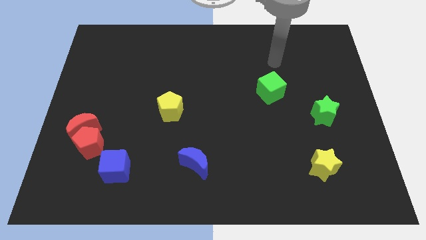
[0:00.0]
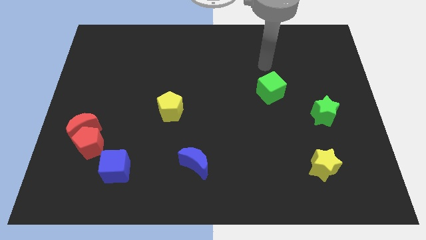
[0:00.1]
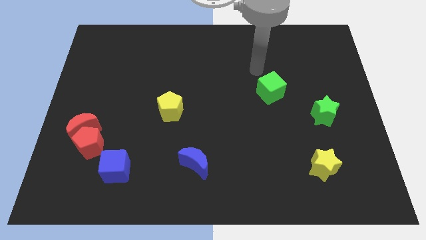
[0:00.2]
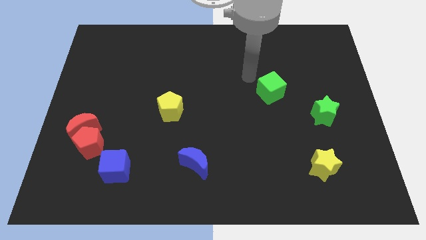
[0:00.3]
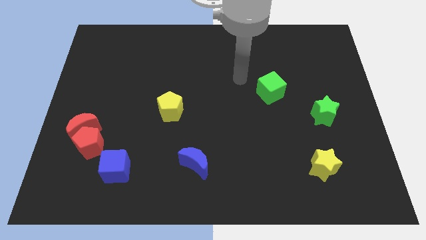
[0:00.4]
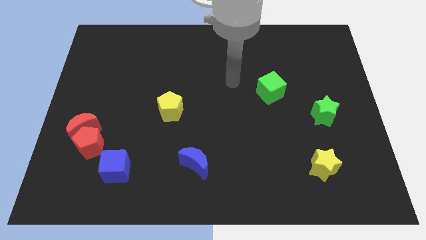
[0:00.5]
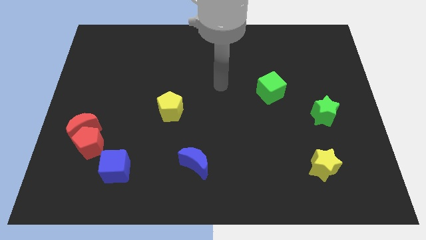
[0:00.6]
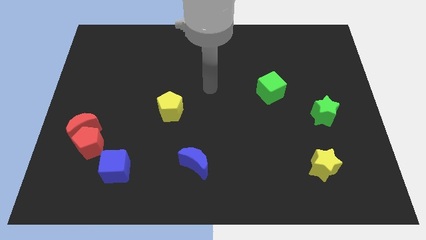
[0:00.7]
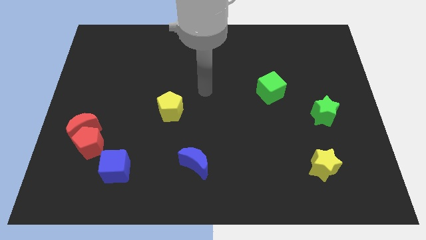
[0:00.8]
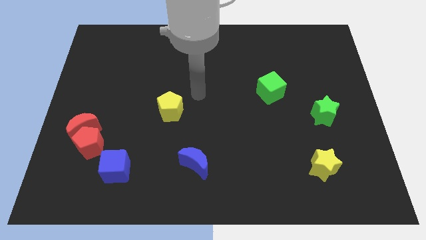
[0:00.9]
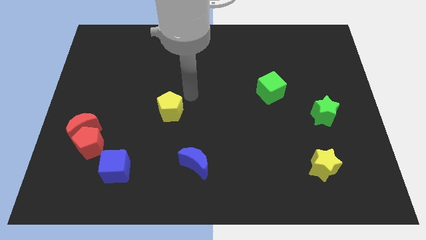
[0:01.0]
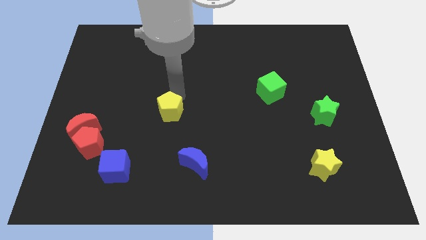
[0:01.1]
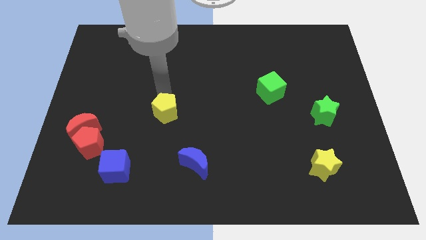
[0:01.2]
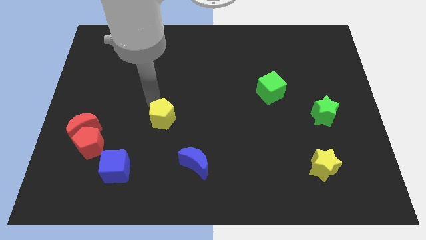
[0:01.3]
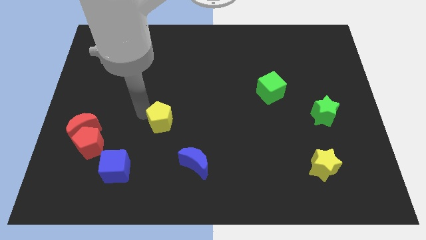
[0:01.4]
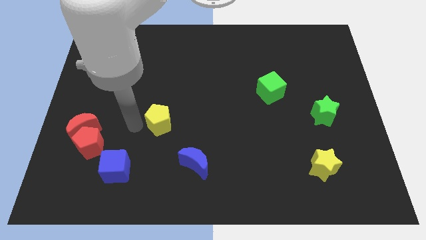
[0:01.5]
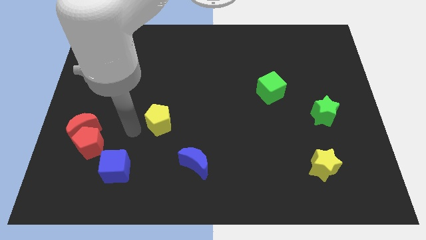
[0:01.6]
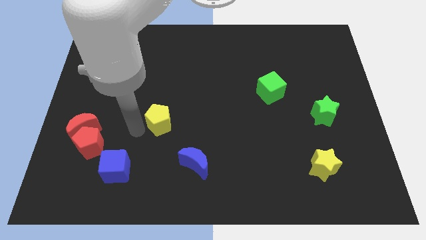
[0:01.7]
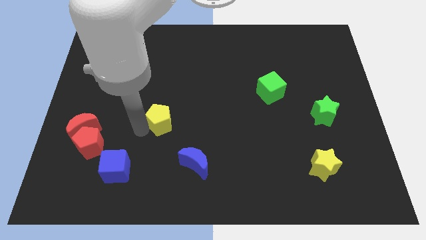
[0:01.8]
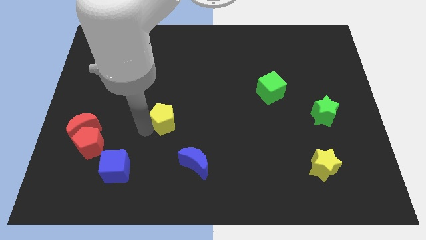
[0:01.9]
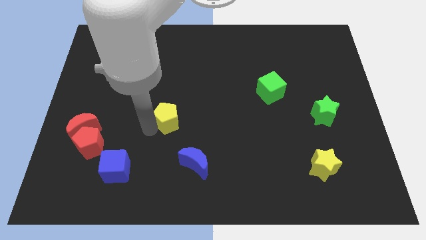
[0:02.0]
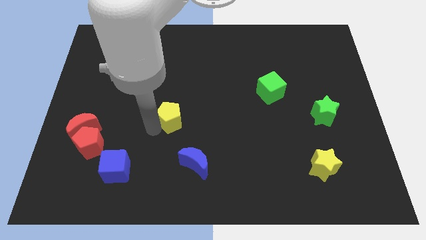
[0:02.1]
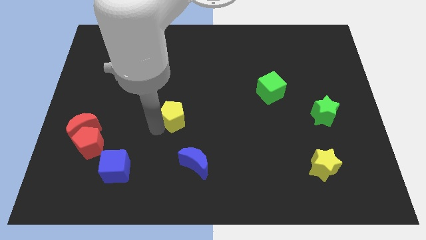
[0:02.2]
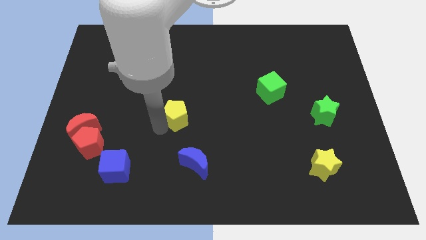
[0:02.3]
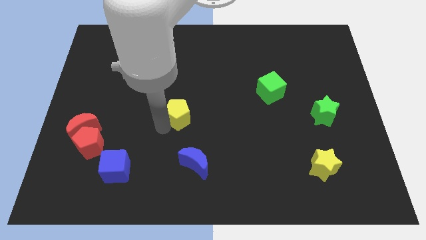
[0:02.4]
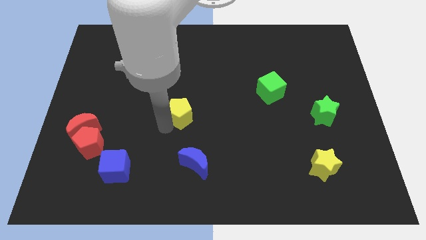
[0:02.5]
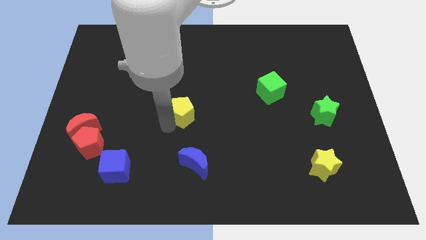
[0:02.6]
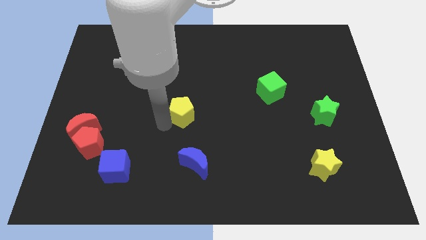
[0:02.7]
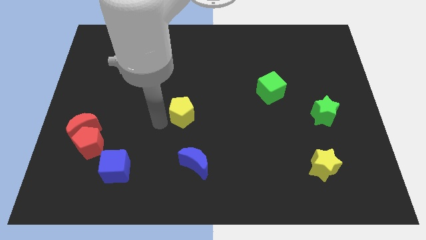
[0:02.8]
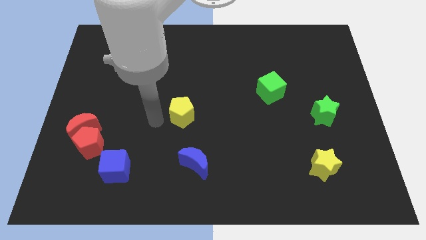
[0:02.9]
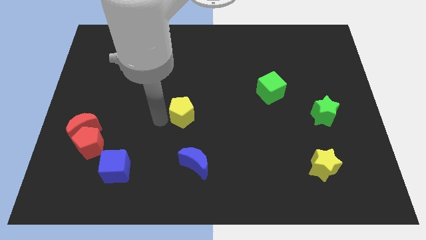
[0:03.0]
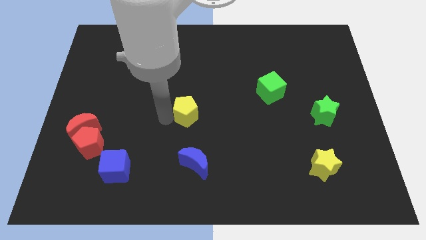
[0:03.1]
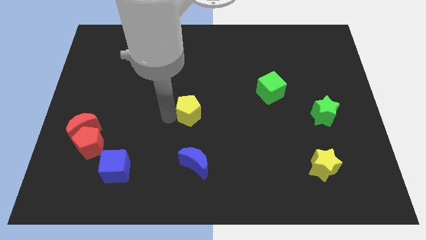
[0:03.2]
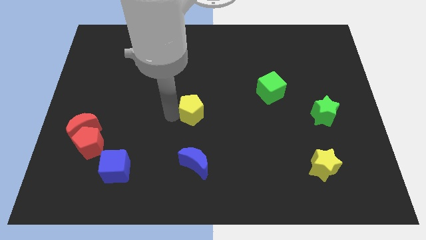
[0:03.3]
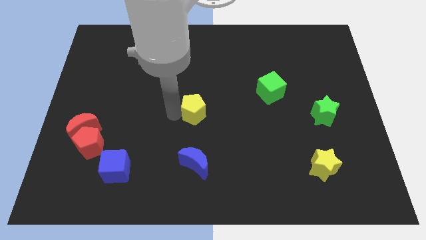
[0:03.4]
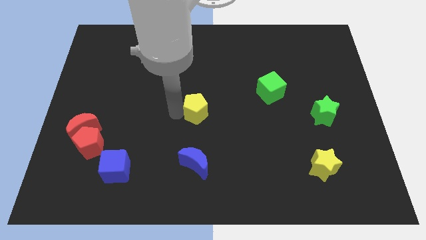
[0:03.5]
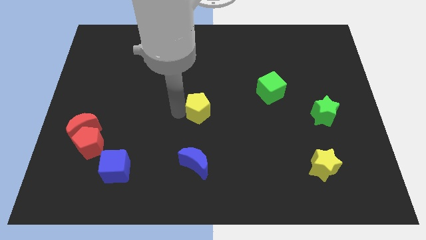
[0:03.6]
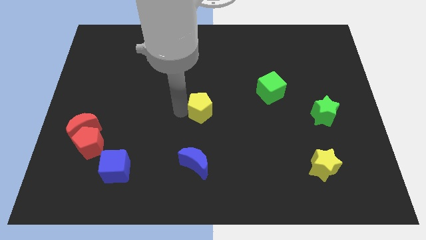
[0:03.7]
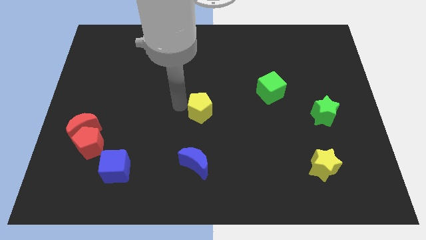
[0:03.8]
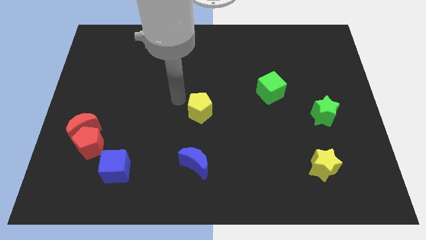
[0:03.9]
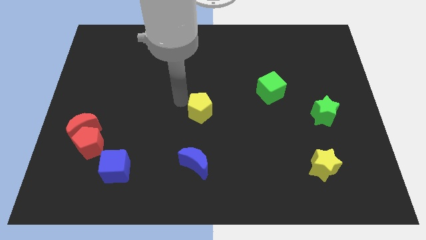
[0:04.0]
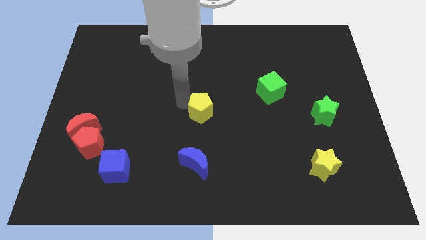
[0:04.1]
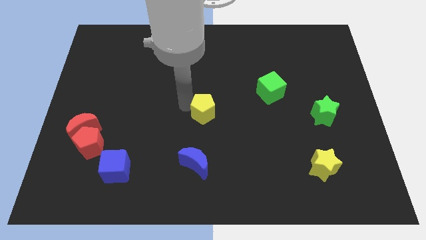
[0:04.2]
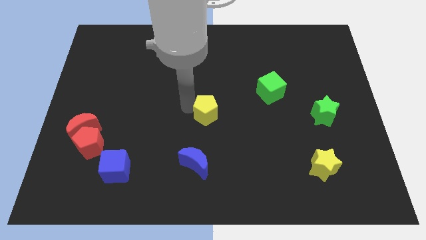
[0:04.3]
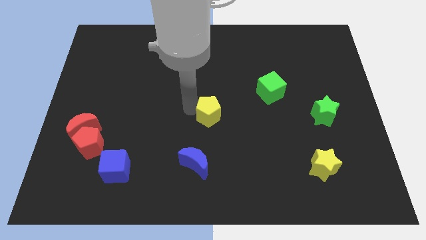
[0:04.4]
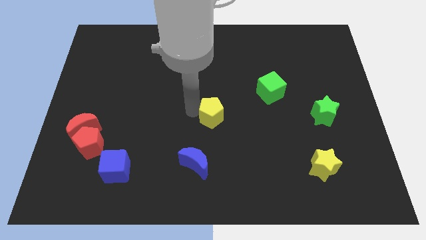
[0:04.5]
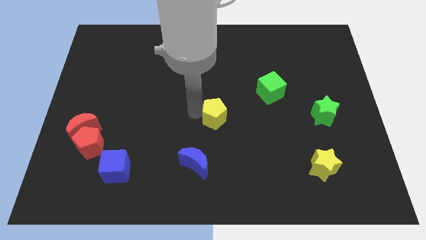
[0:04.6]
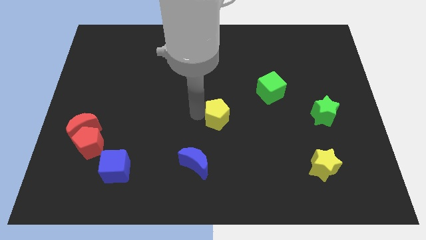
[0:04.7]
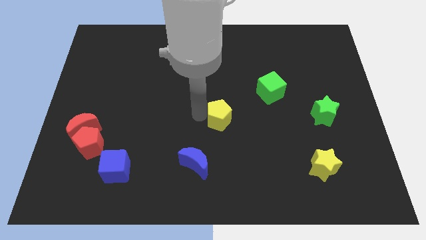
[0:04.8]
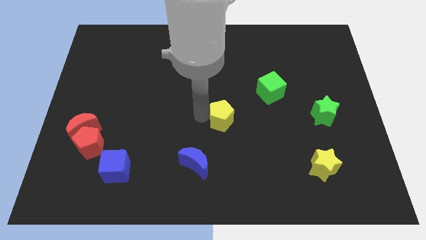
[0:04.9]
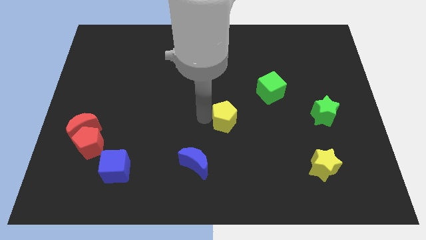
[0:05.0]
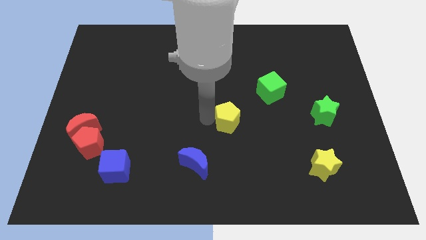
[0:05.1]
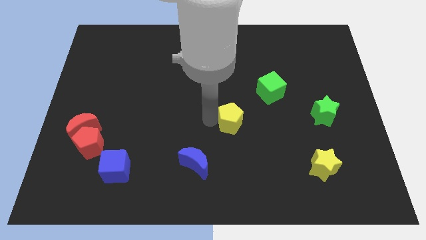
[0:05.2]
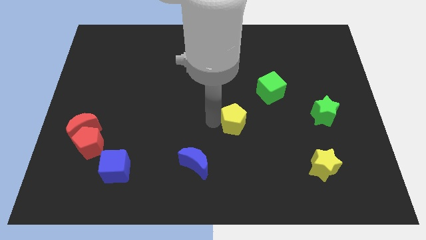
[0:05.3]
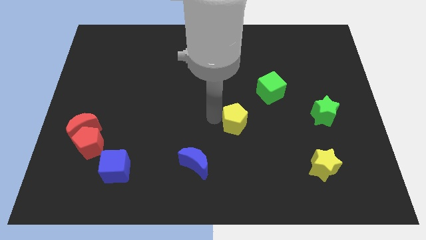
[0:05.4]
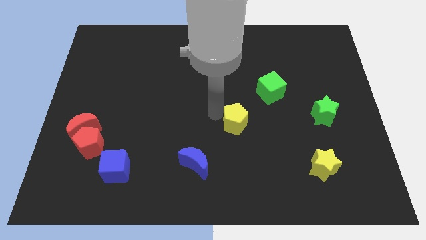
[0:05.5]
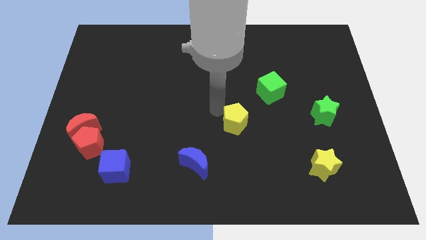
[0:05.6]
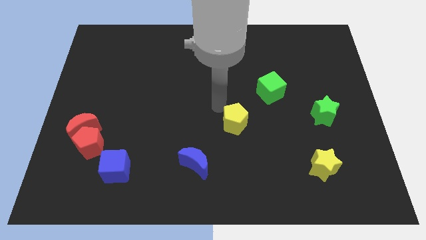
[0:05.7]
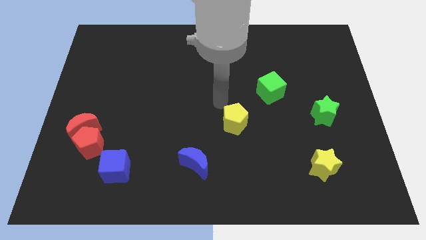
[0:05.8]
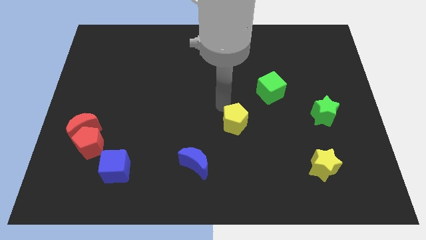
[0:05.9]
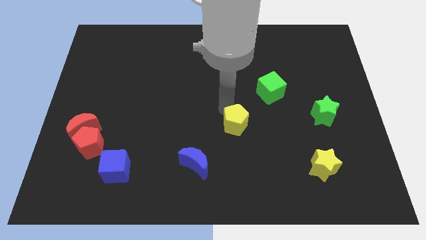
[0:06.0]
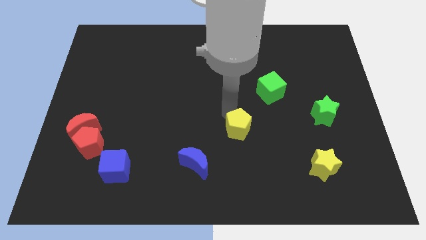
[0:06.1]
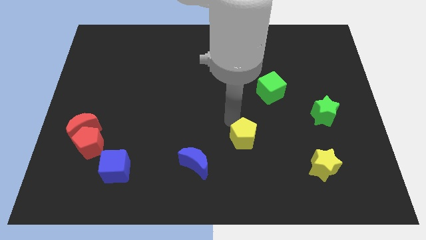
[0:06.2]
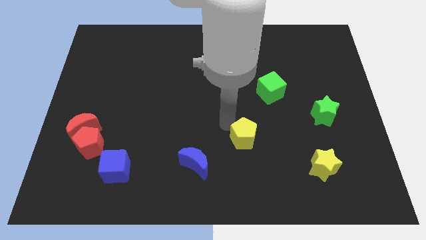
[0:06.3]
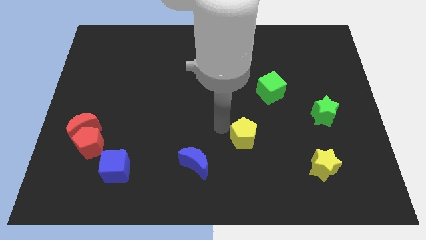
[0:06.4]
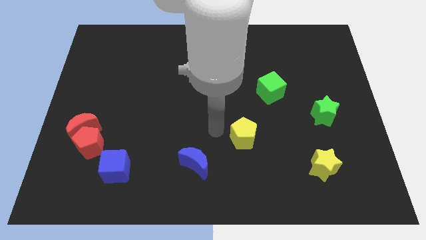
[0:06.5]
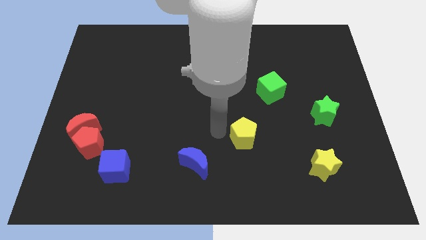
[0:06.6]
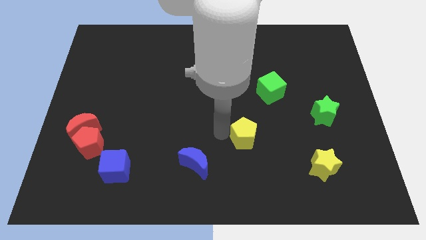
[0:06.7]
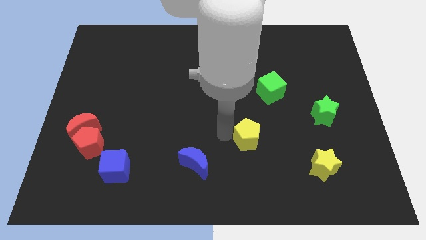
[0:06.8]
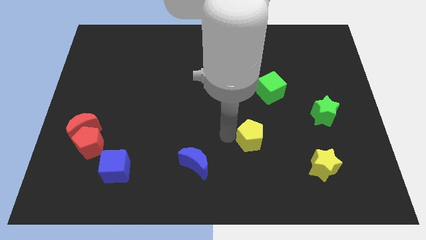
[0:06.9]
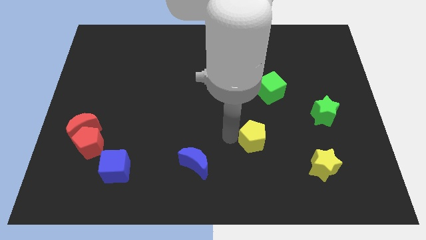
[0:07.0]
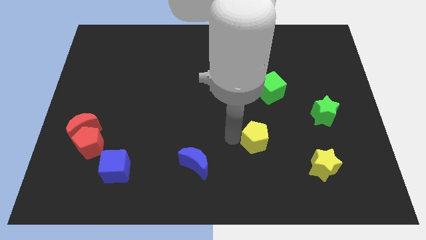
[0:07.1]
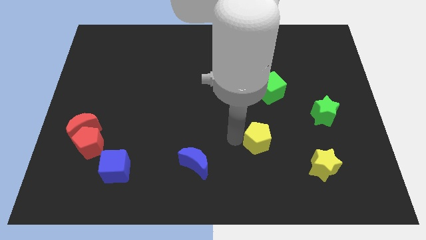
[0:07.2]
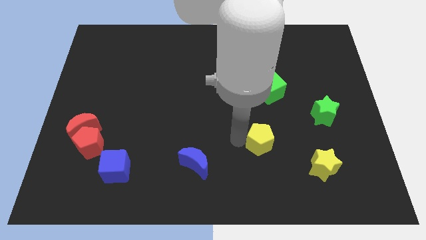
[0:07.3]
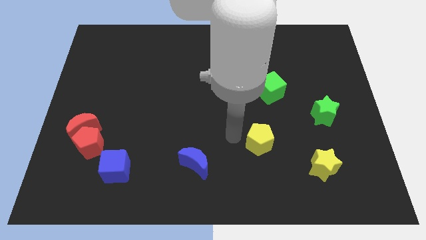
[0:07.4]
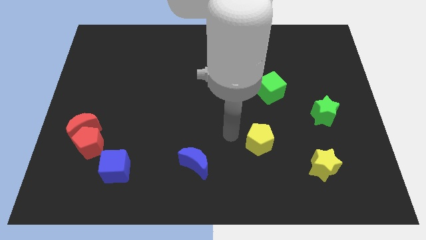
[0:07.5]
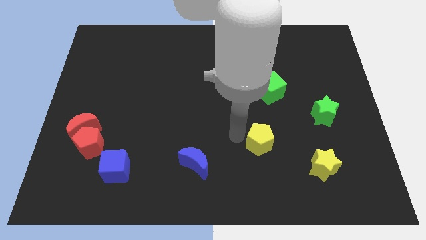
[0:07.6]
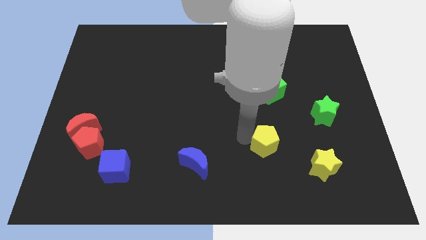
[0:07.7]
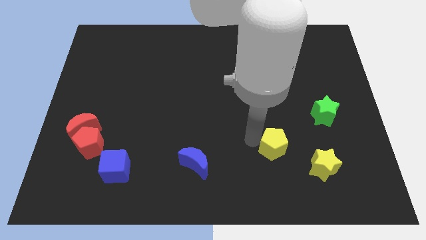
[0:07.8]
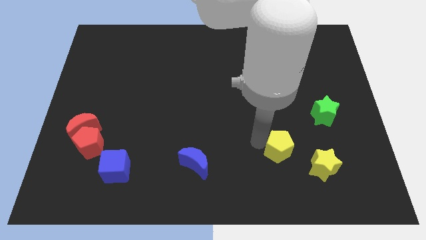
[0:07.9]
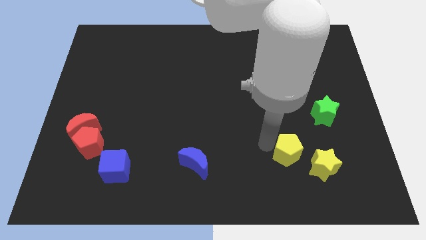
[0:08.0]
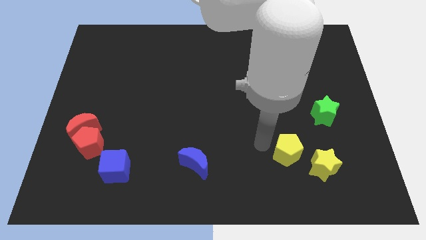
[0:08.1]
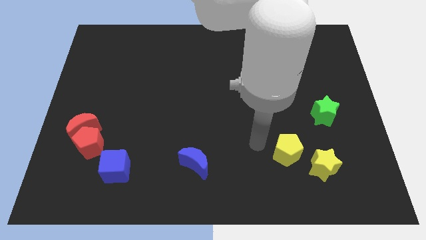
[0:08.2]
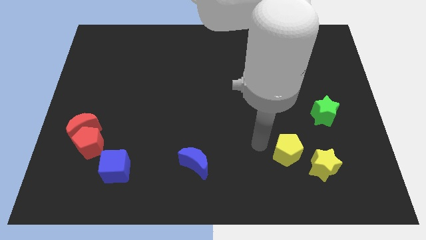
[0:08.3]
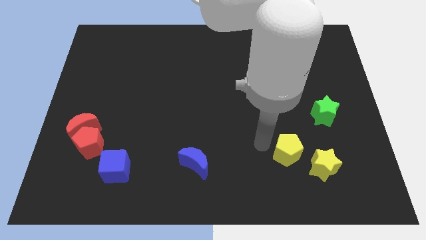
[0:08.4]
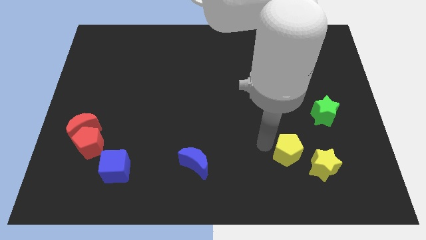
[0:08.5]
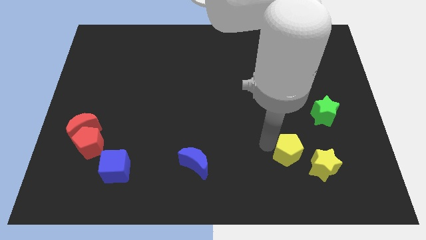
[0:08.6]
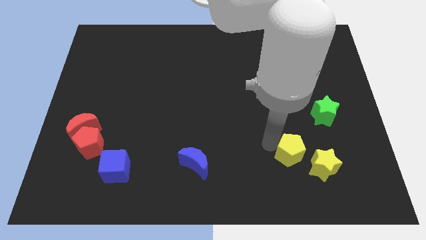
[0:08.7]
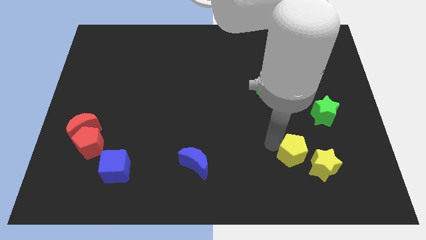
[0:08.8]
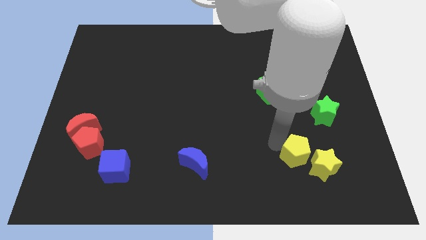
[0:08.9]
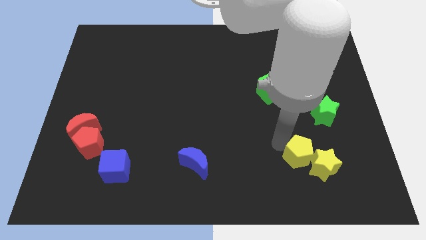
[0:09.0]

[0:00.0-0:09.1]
put the yellow pentagon next to the yellow star
